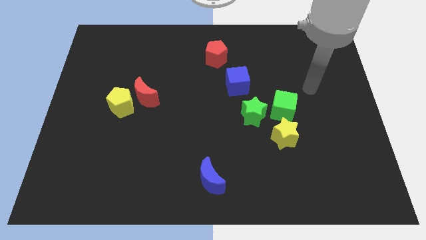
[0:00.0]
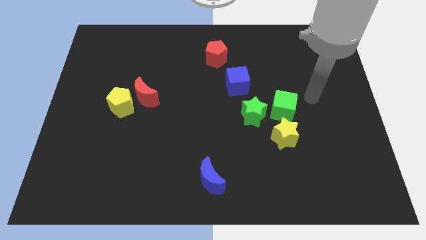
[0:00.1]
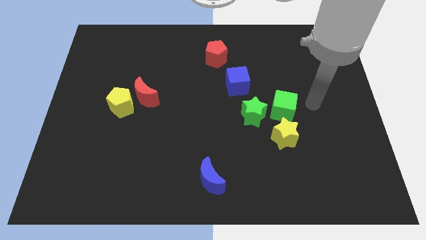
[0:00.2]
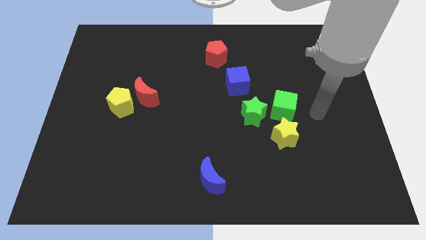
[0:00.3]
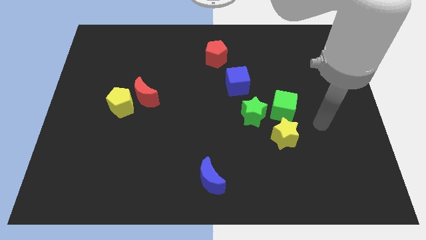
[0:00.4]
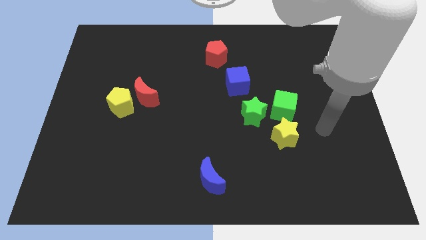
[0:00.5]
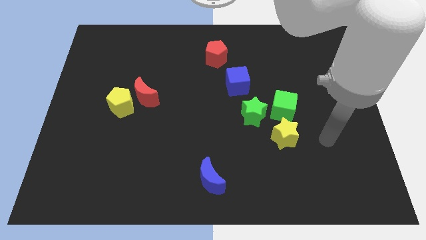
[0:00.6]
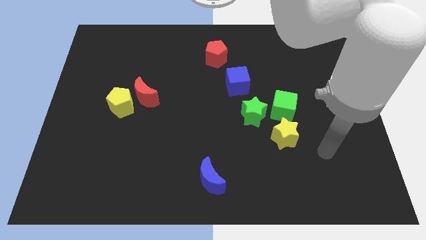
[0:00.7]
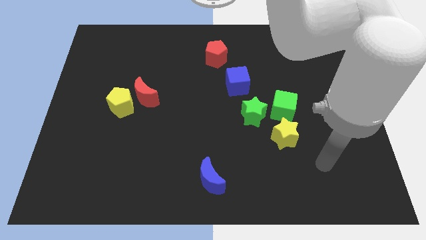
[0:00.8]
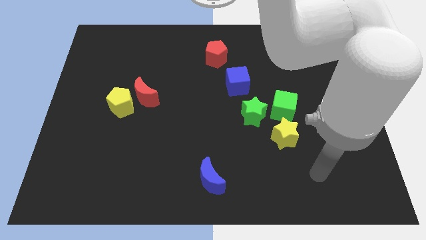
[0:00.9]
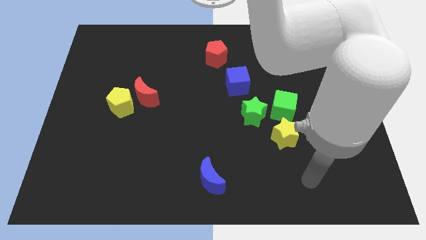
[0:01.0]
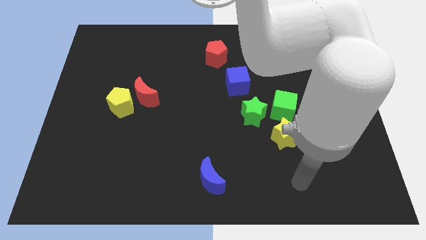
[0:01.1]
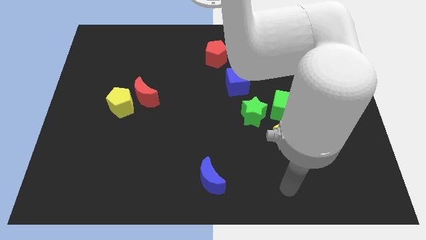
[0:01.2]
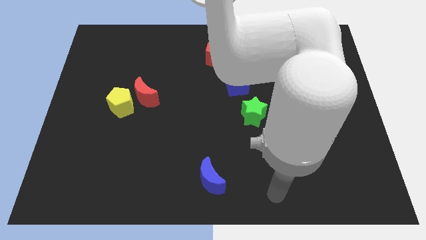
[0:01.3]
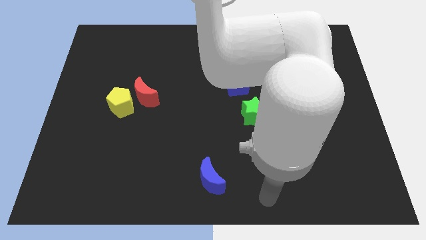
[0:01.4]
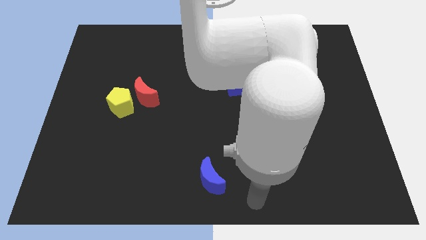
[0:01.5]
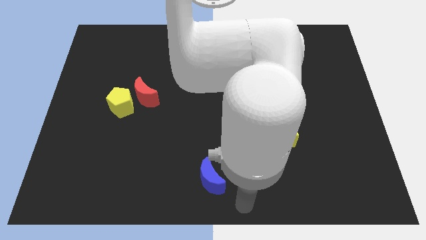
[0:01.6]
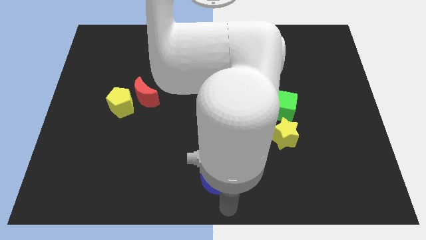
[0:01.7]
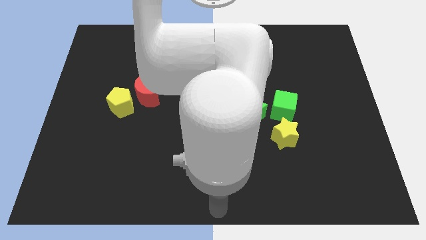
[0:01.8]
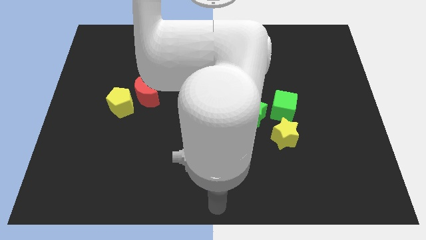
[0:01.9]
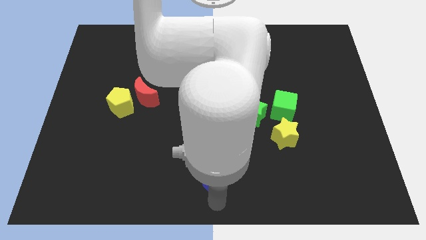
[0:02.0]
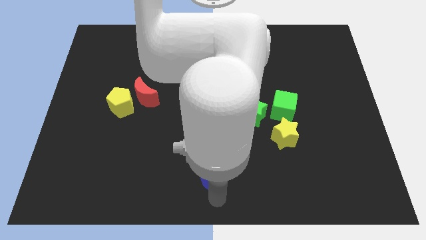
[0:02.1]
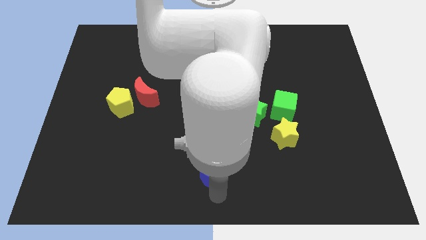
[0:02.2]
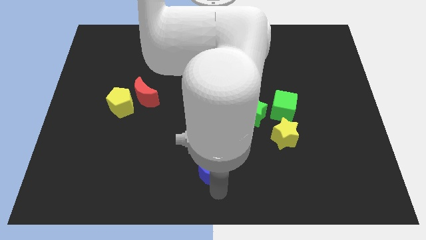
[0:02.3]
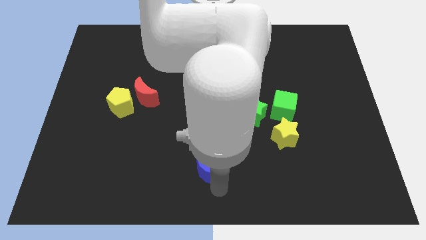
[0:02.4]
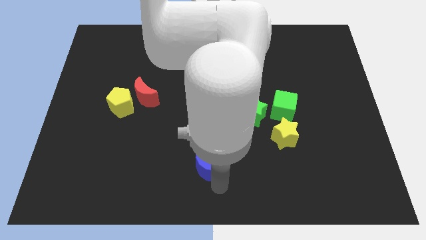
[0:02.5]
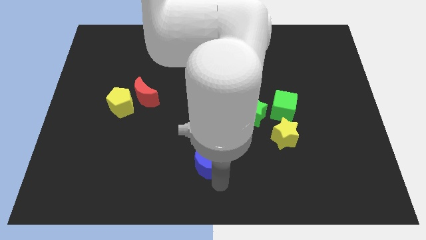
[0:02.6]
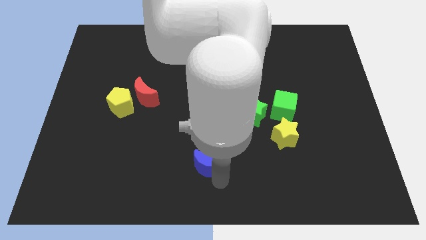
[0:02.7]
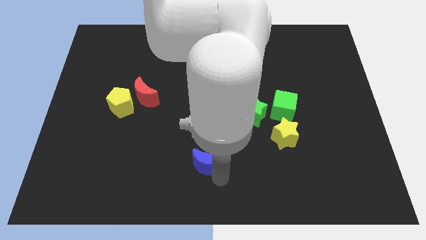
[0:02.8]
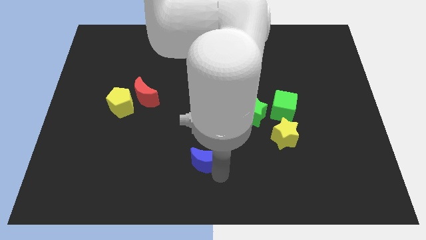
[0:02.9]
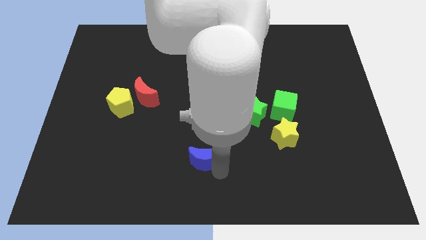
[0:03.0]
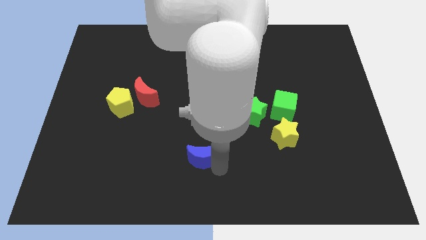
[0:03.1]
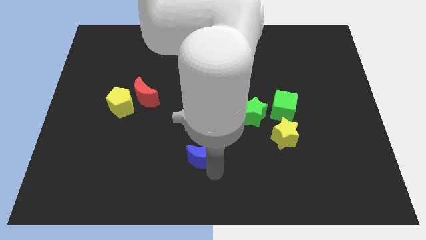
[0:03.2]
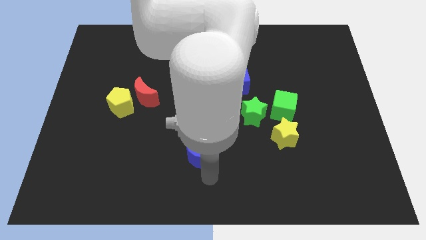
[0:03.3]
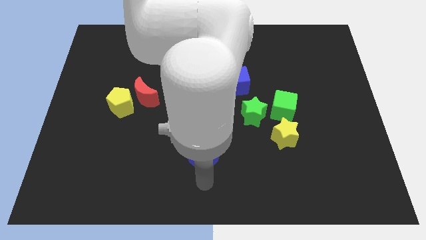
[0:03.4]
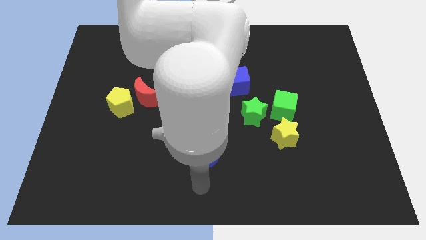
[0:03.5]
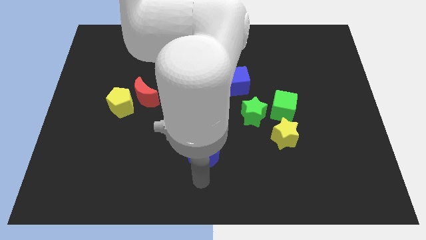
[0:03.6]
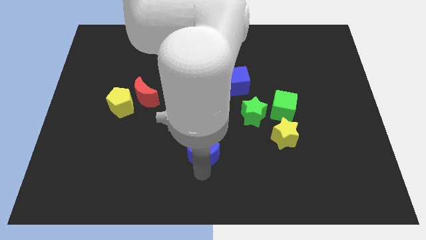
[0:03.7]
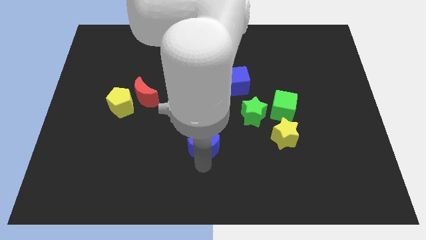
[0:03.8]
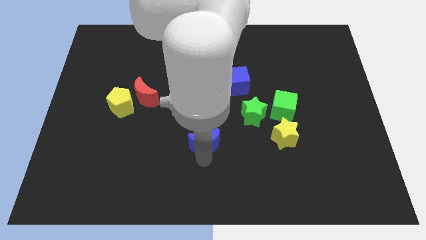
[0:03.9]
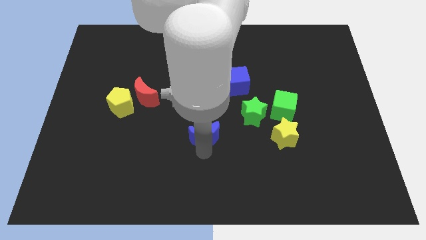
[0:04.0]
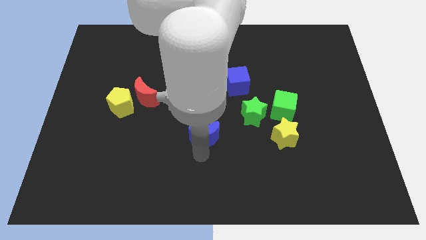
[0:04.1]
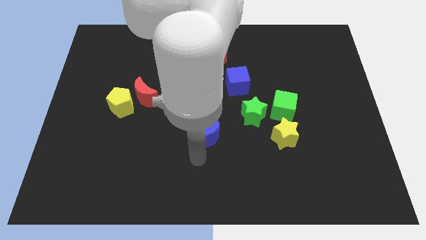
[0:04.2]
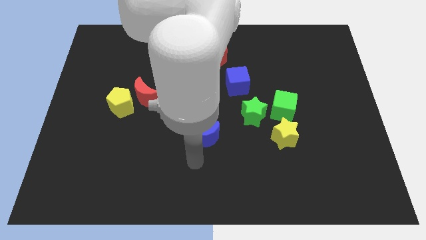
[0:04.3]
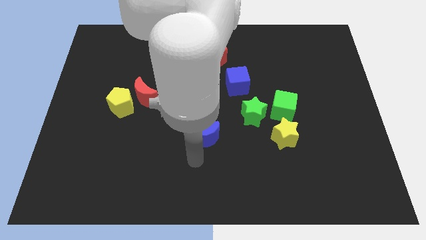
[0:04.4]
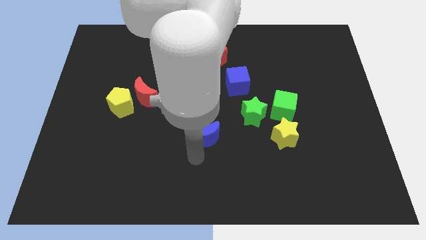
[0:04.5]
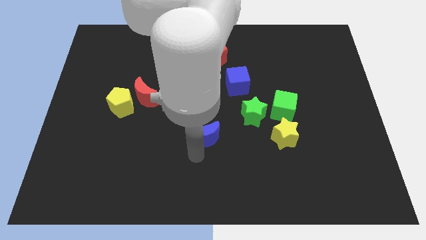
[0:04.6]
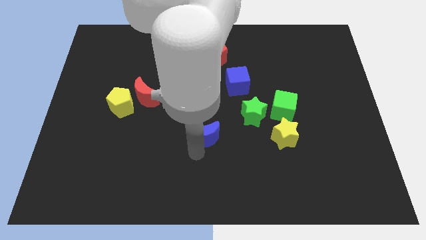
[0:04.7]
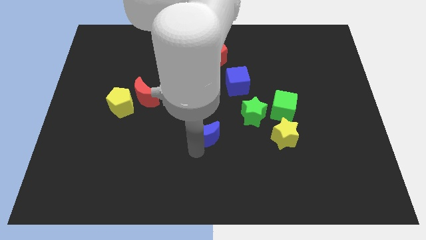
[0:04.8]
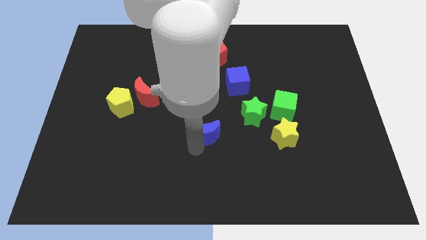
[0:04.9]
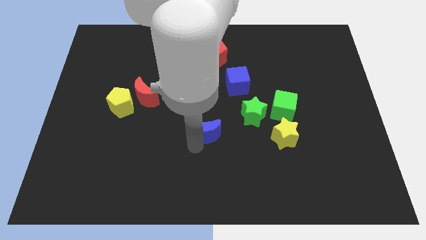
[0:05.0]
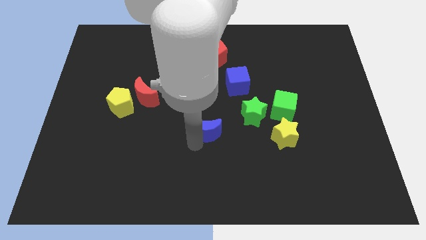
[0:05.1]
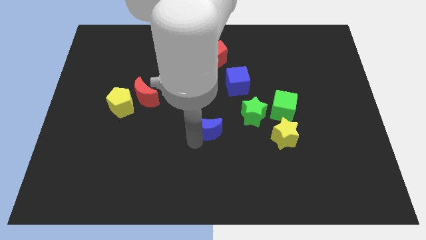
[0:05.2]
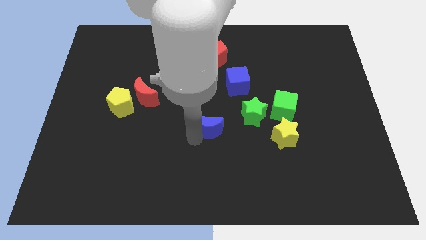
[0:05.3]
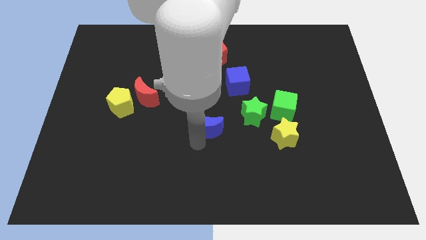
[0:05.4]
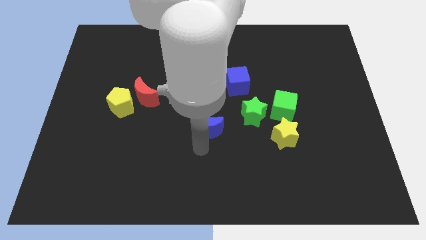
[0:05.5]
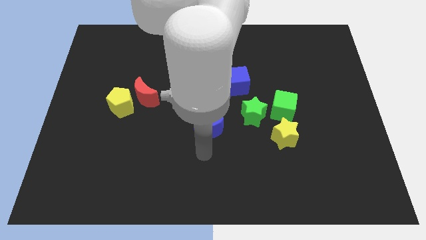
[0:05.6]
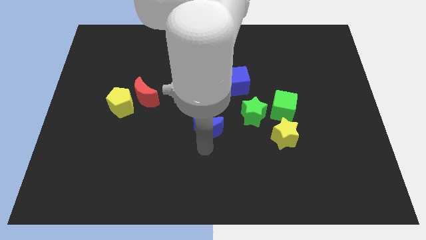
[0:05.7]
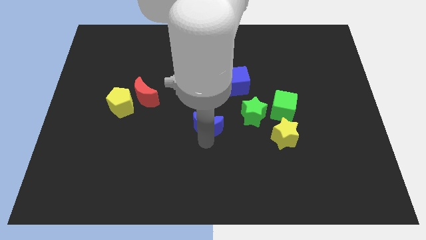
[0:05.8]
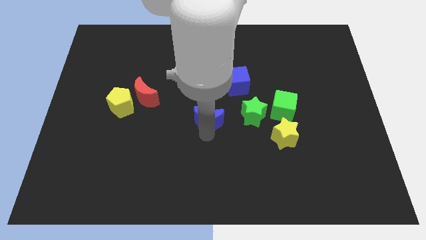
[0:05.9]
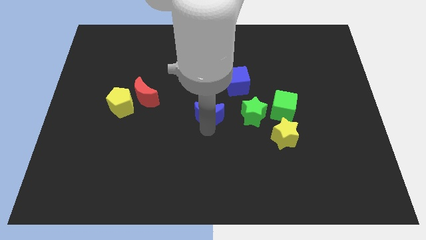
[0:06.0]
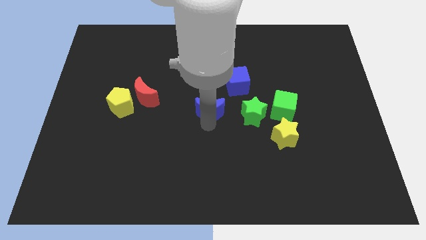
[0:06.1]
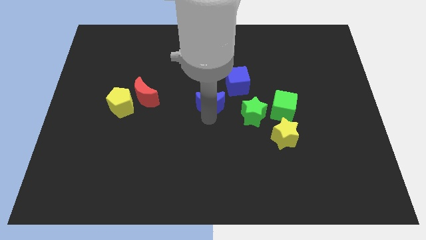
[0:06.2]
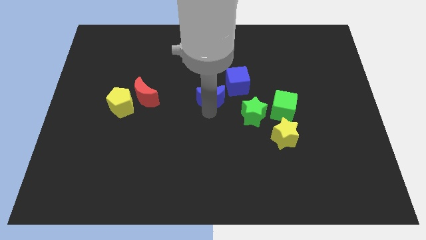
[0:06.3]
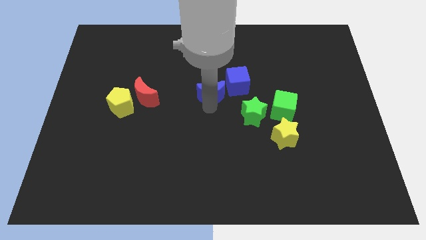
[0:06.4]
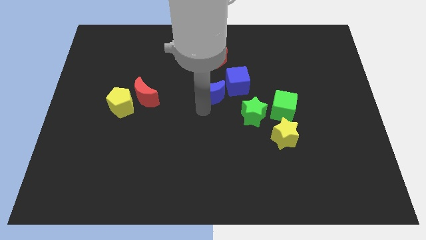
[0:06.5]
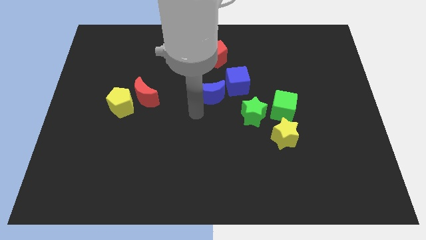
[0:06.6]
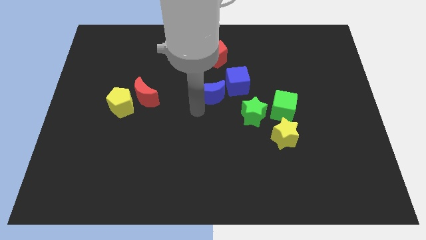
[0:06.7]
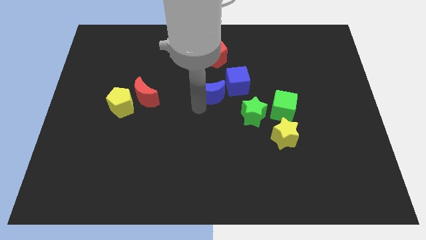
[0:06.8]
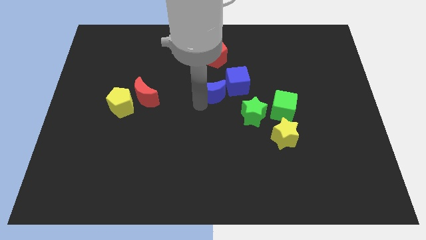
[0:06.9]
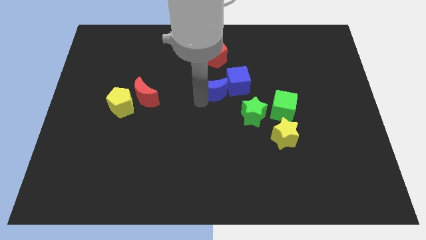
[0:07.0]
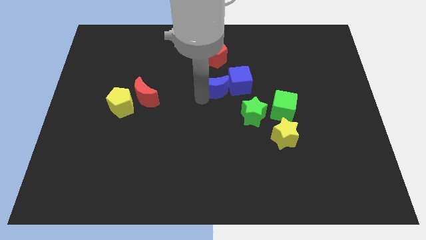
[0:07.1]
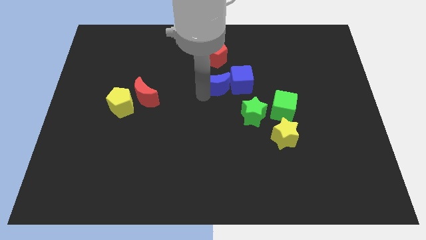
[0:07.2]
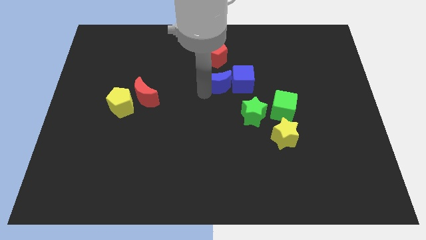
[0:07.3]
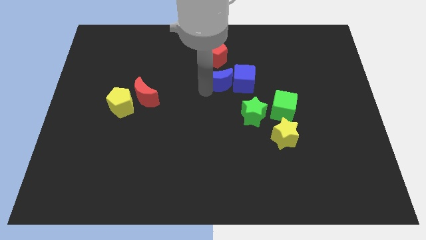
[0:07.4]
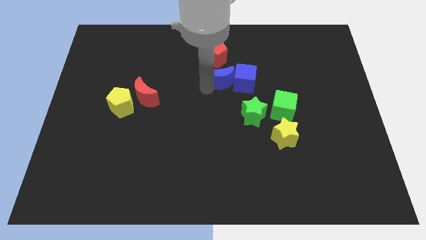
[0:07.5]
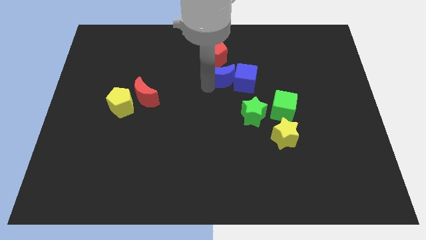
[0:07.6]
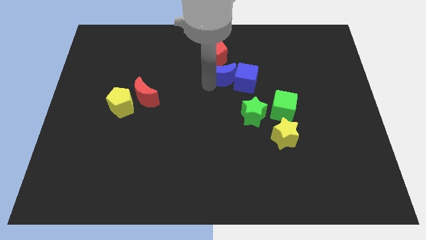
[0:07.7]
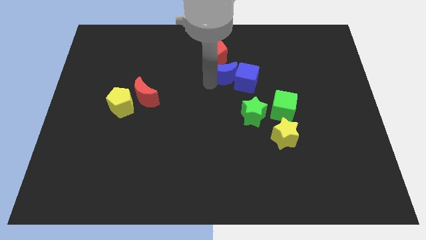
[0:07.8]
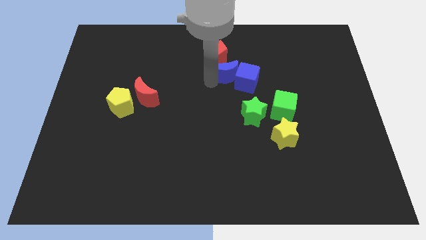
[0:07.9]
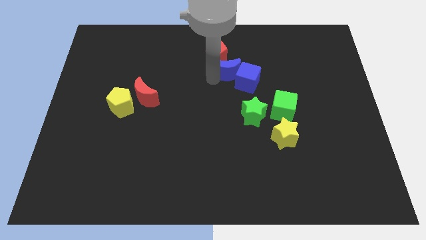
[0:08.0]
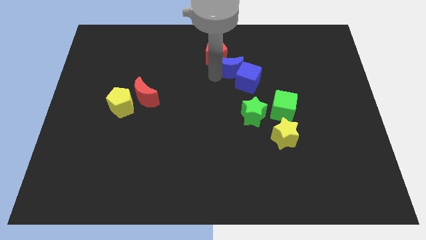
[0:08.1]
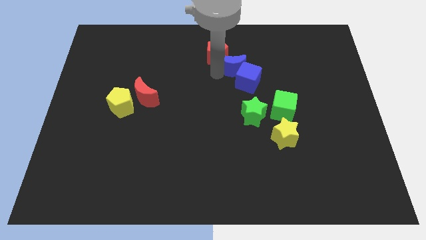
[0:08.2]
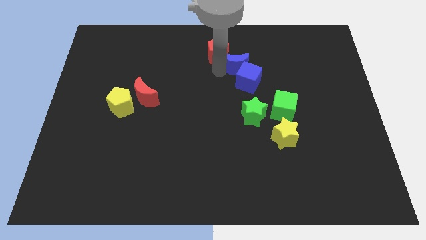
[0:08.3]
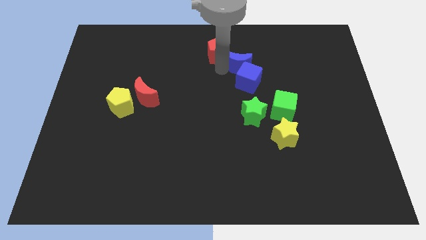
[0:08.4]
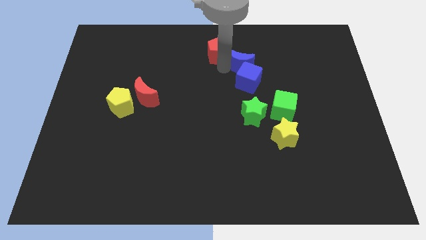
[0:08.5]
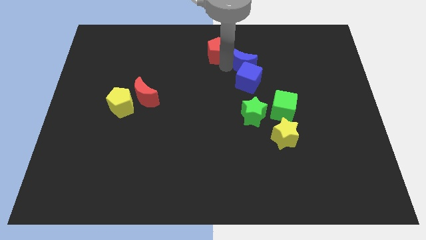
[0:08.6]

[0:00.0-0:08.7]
move the blue moon diagonally up and to the right of the blue cube
